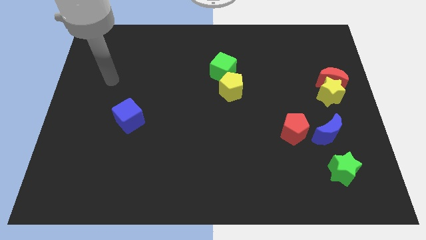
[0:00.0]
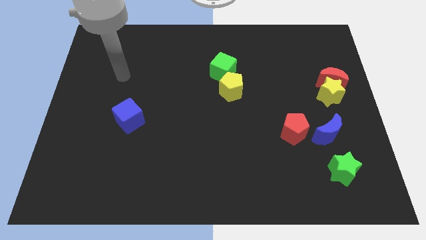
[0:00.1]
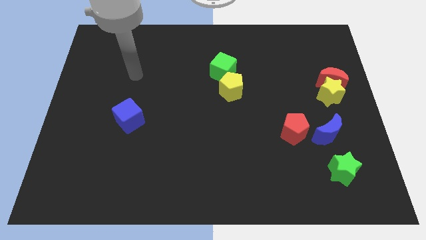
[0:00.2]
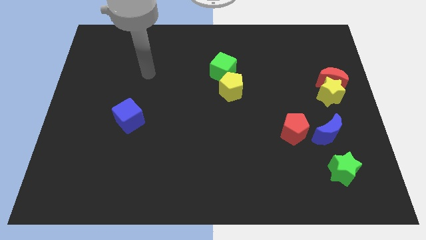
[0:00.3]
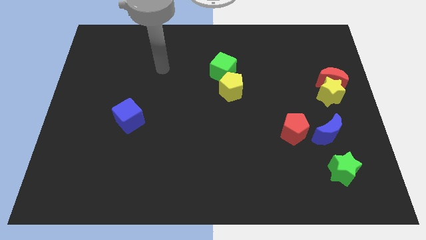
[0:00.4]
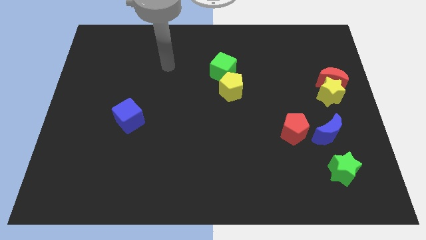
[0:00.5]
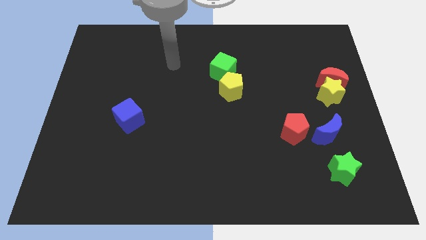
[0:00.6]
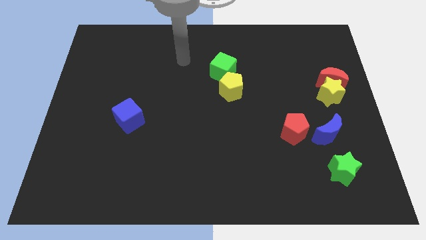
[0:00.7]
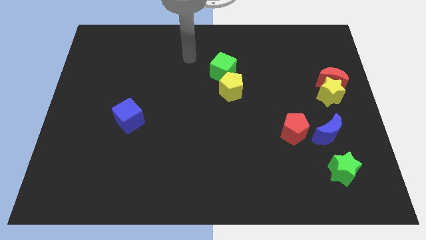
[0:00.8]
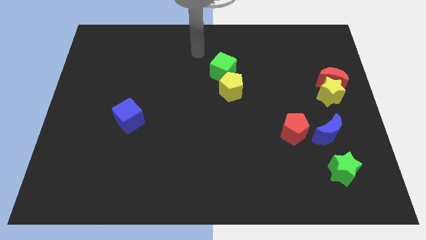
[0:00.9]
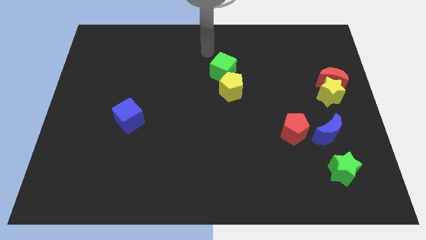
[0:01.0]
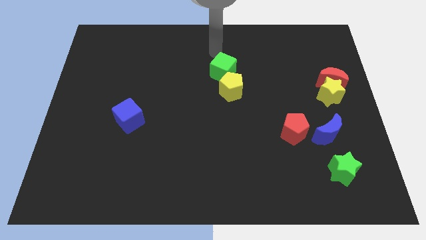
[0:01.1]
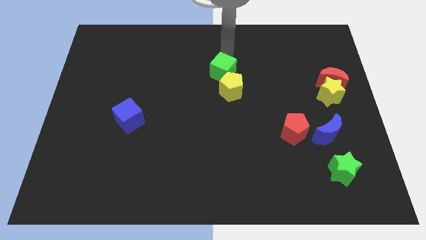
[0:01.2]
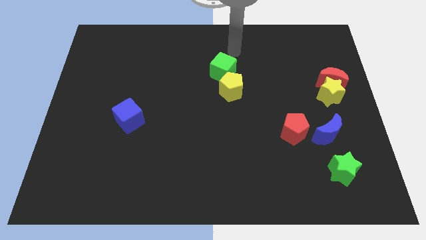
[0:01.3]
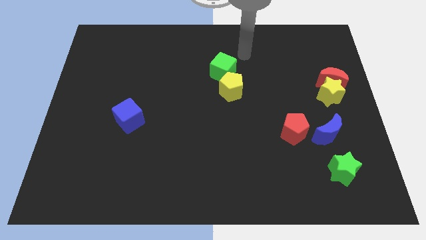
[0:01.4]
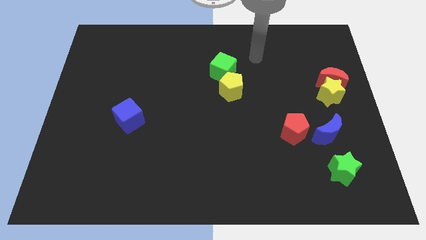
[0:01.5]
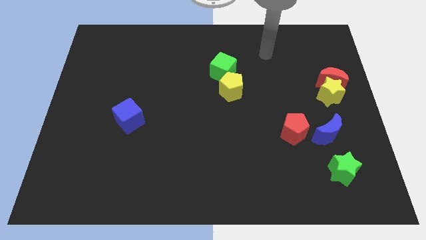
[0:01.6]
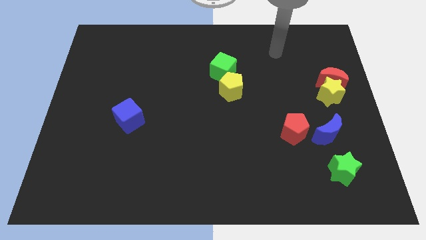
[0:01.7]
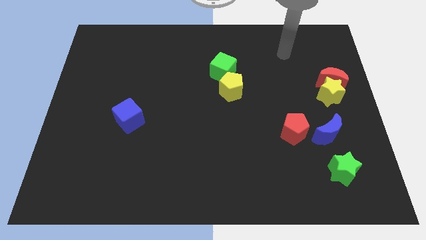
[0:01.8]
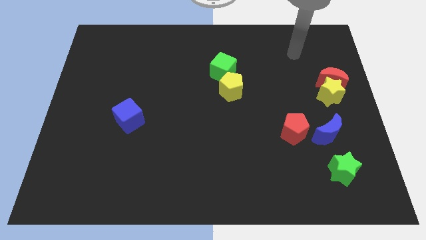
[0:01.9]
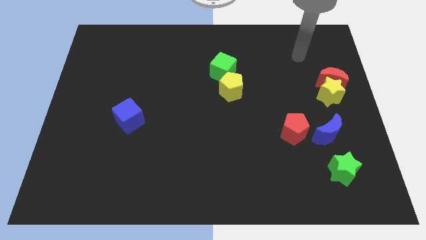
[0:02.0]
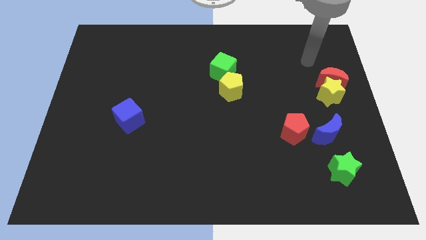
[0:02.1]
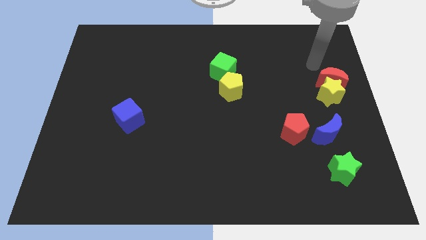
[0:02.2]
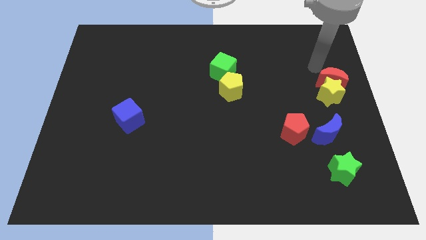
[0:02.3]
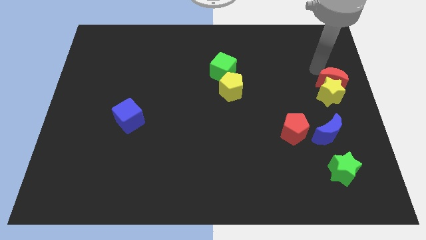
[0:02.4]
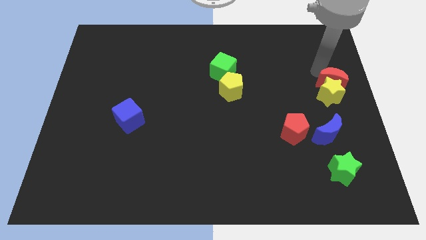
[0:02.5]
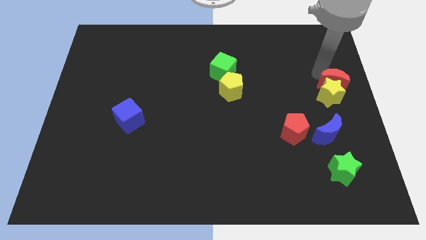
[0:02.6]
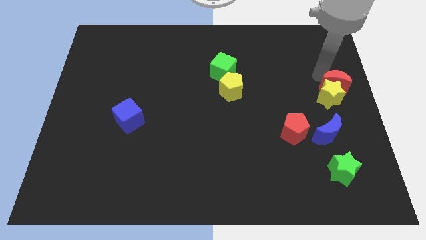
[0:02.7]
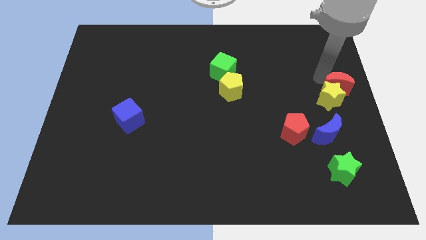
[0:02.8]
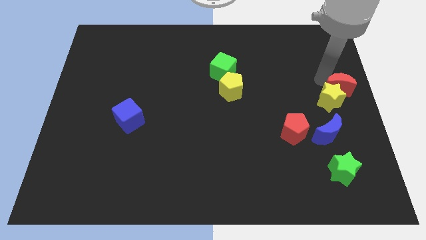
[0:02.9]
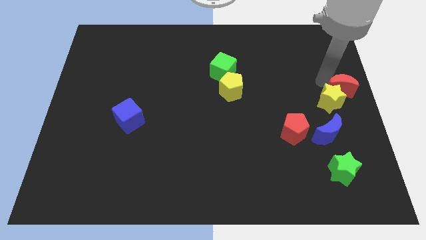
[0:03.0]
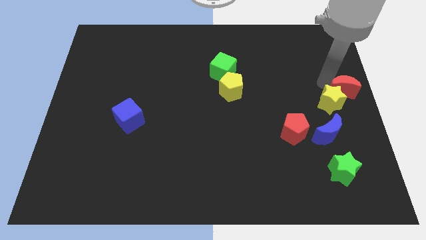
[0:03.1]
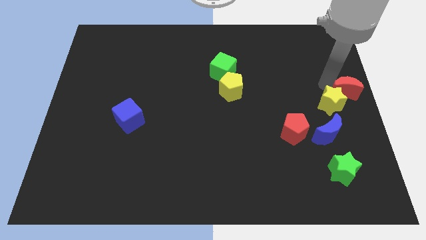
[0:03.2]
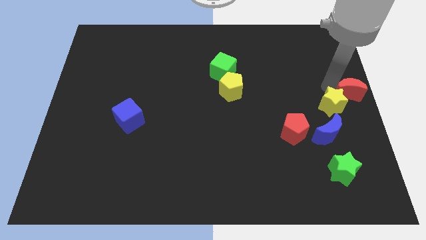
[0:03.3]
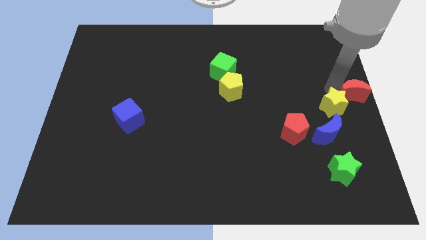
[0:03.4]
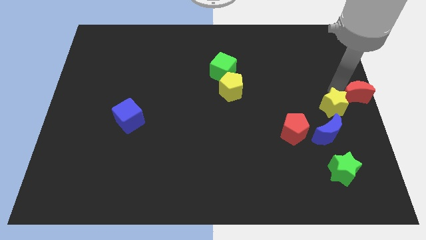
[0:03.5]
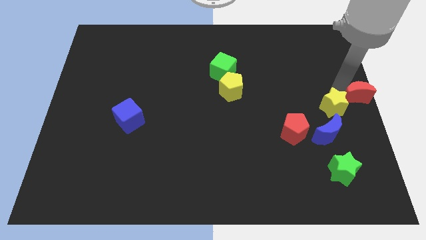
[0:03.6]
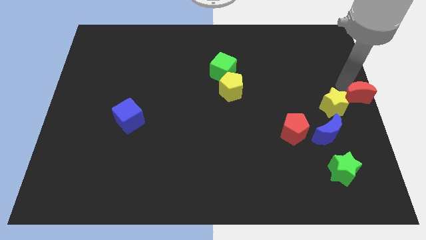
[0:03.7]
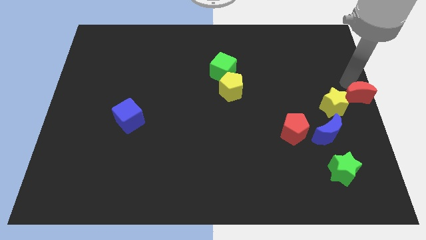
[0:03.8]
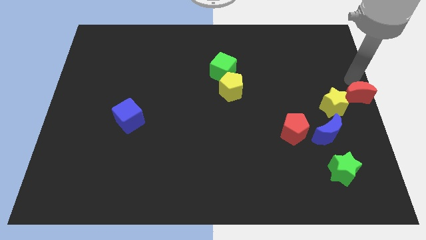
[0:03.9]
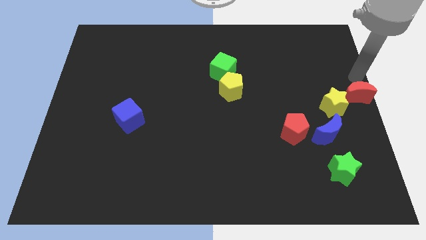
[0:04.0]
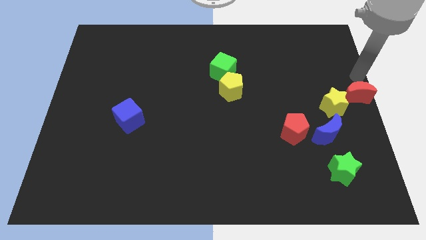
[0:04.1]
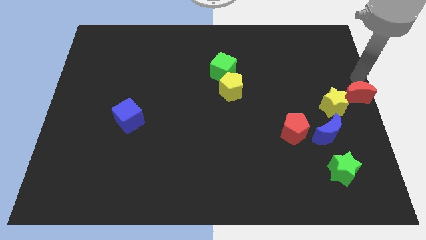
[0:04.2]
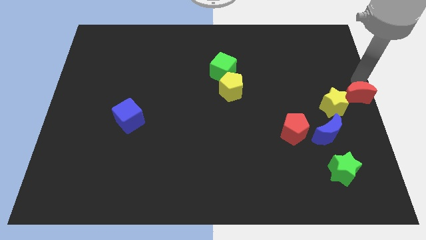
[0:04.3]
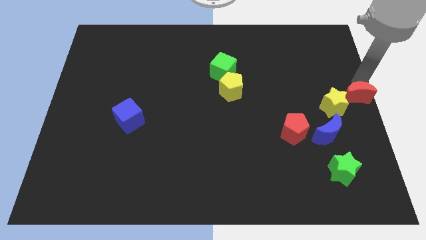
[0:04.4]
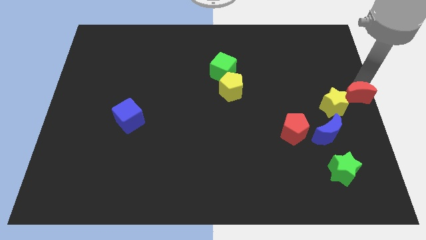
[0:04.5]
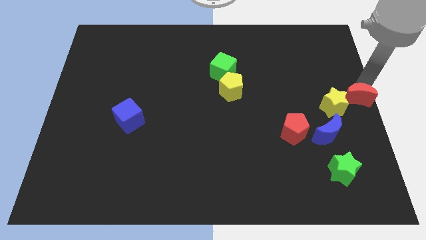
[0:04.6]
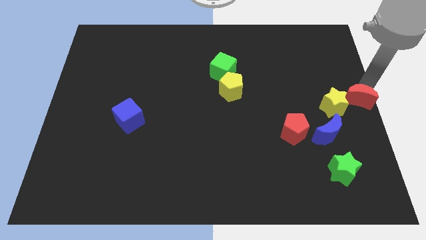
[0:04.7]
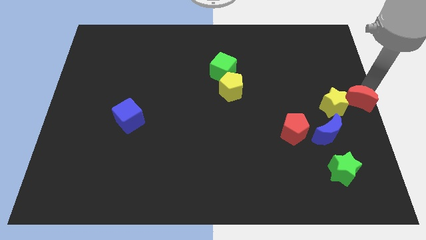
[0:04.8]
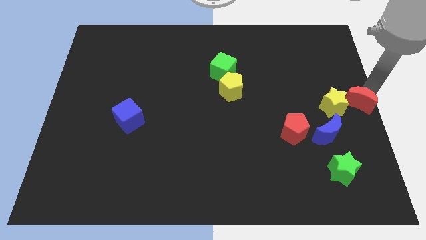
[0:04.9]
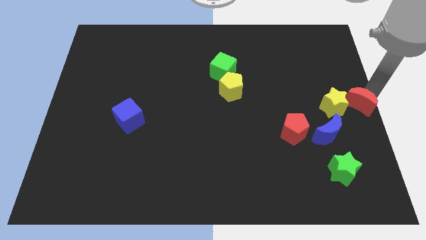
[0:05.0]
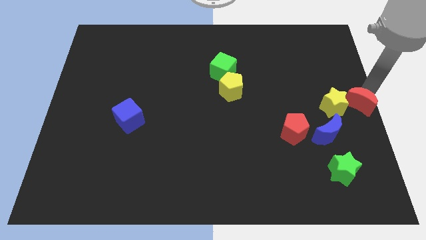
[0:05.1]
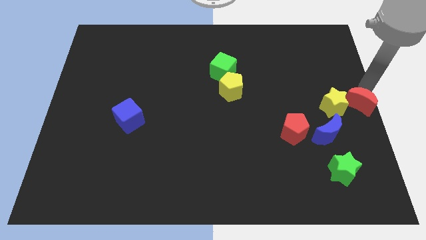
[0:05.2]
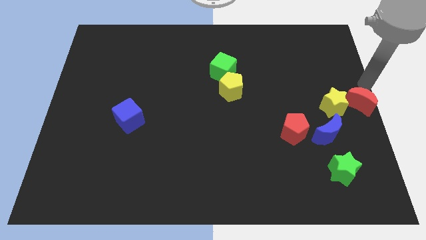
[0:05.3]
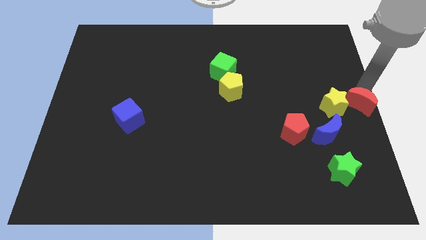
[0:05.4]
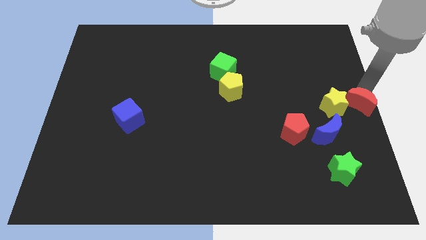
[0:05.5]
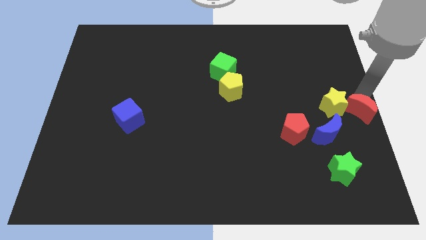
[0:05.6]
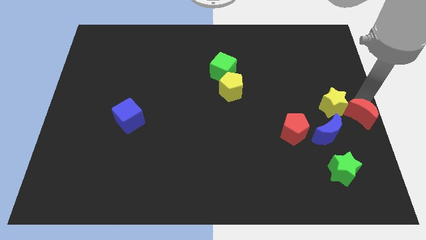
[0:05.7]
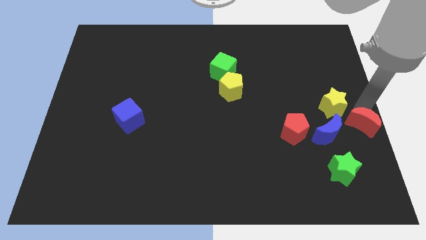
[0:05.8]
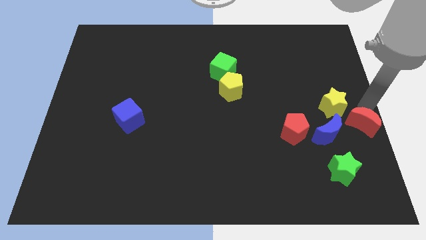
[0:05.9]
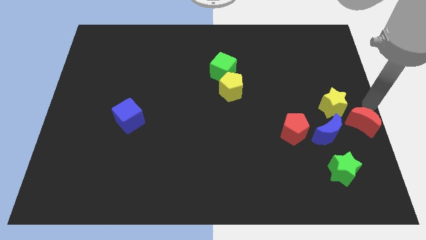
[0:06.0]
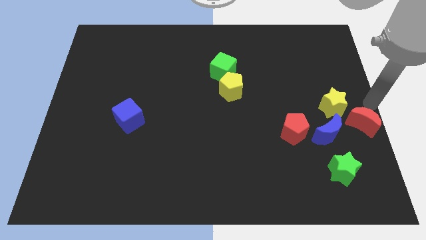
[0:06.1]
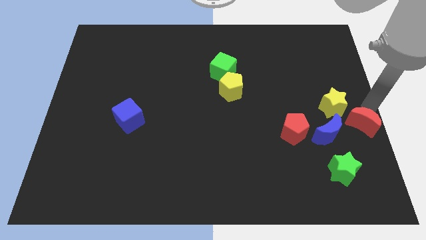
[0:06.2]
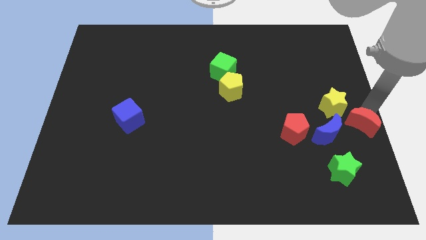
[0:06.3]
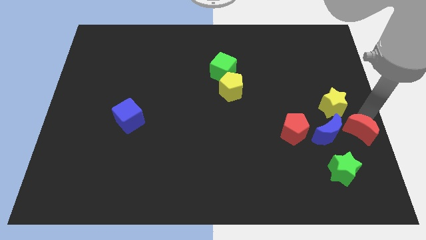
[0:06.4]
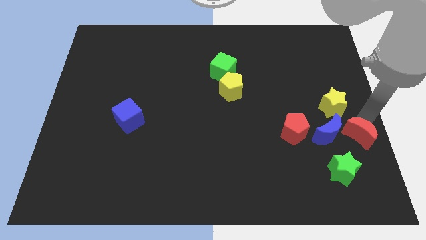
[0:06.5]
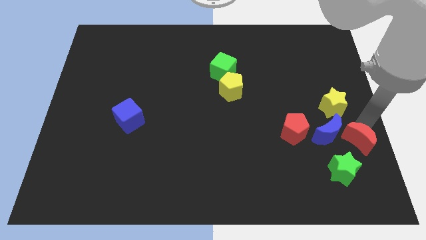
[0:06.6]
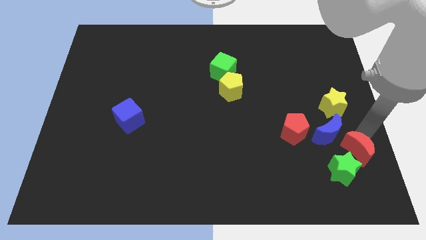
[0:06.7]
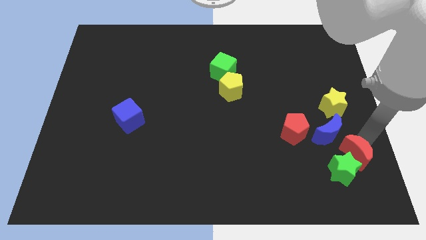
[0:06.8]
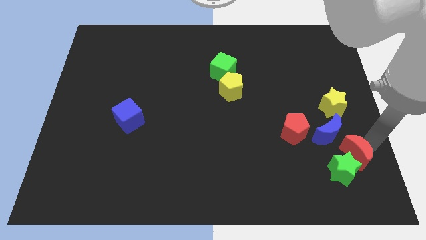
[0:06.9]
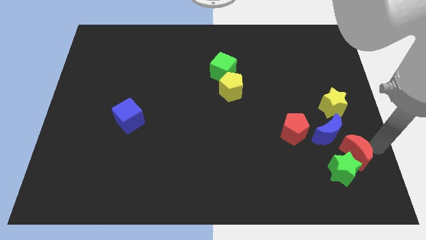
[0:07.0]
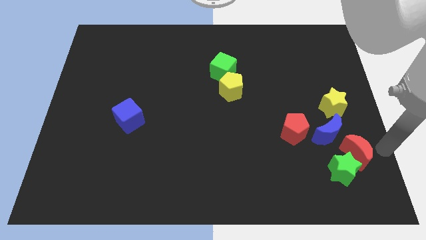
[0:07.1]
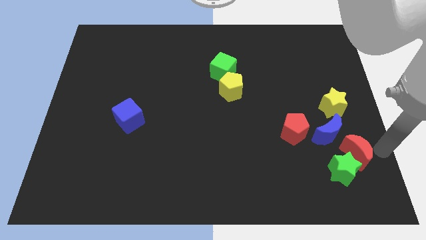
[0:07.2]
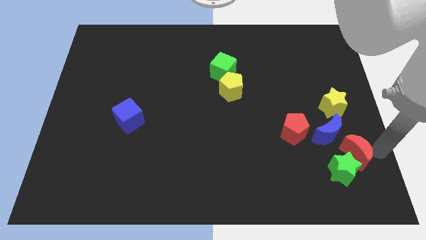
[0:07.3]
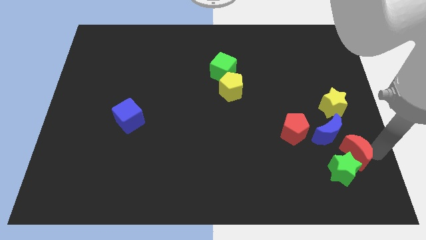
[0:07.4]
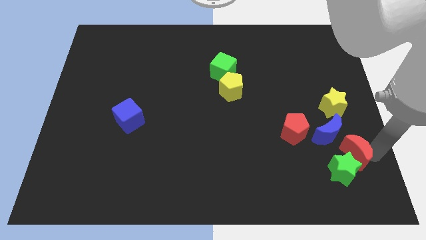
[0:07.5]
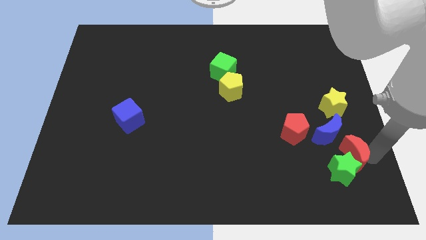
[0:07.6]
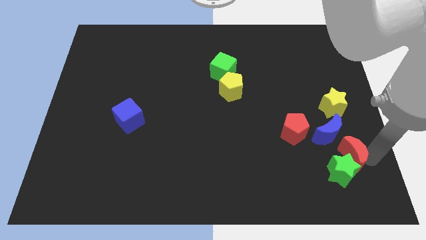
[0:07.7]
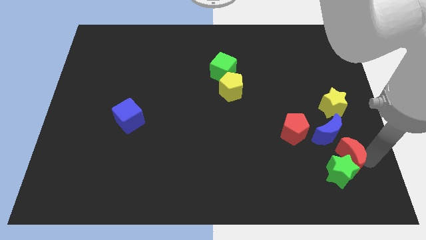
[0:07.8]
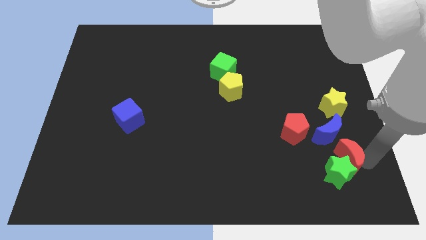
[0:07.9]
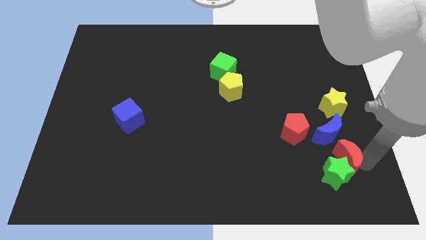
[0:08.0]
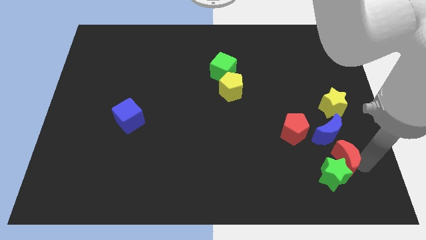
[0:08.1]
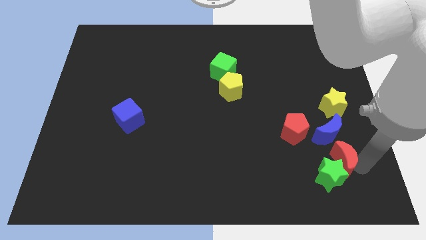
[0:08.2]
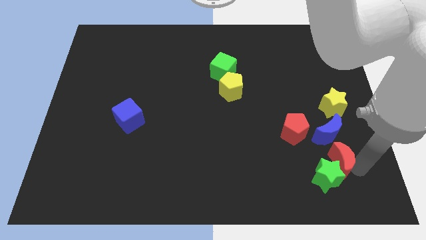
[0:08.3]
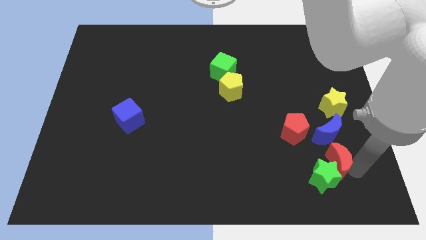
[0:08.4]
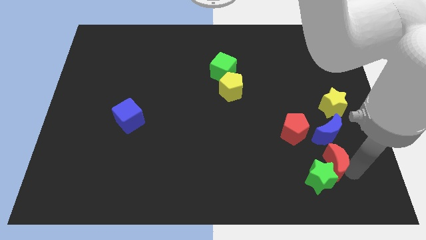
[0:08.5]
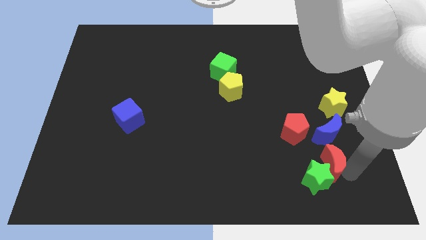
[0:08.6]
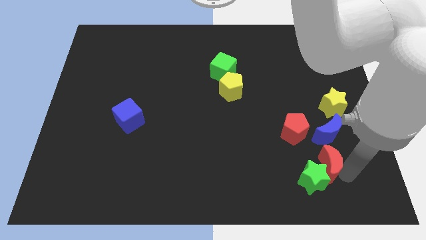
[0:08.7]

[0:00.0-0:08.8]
put the red moon to the bottom left of the blue moon
